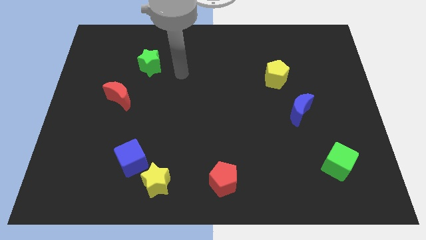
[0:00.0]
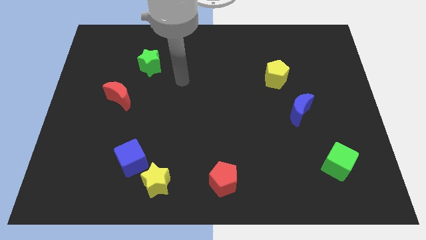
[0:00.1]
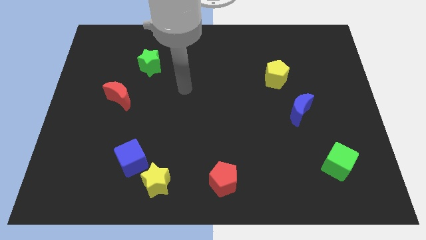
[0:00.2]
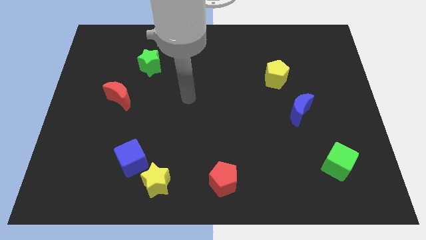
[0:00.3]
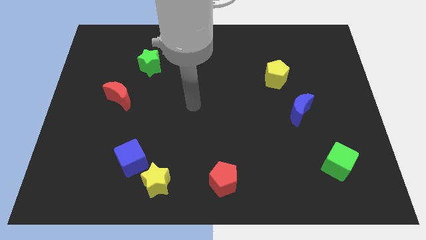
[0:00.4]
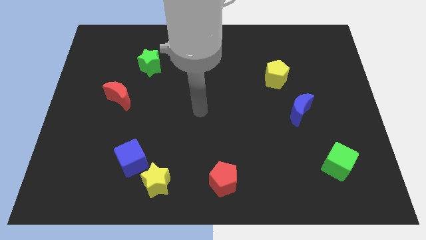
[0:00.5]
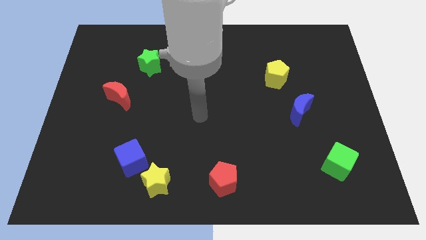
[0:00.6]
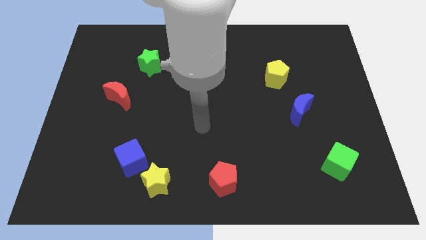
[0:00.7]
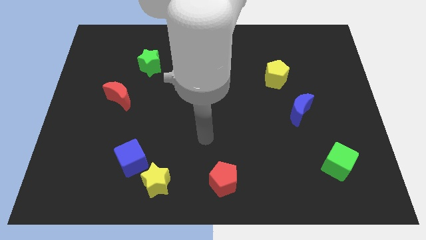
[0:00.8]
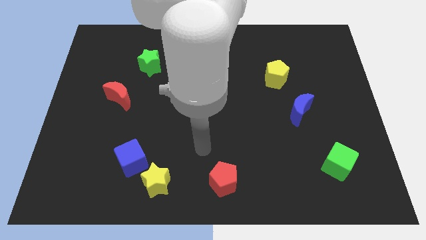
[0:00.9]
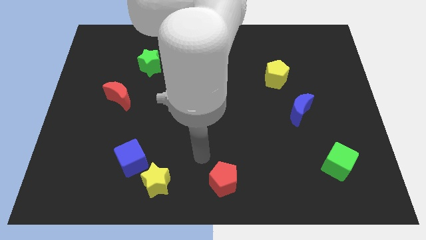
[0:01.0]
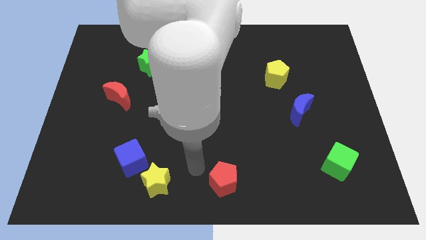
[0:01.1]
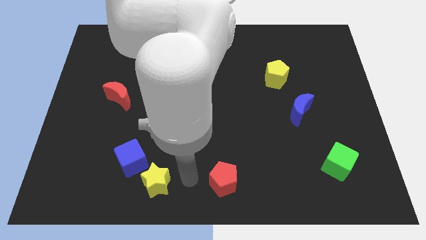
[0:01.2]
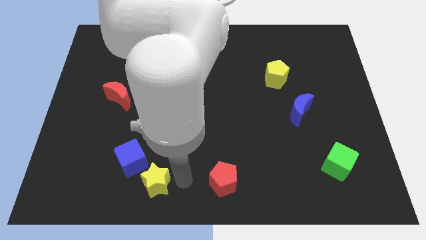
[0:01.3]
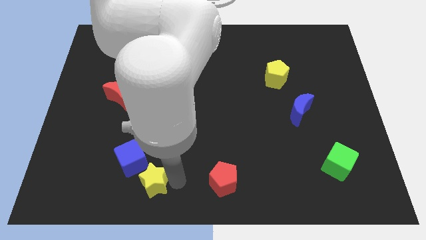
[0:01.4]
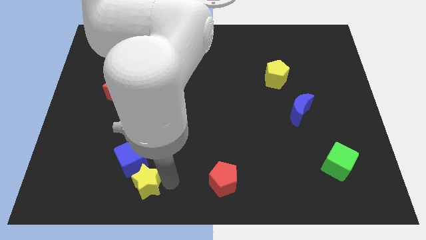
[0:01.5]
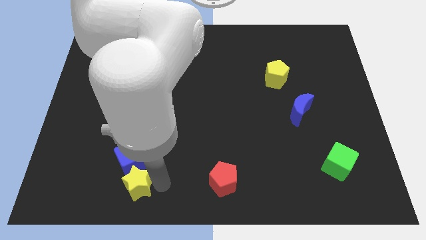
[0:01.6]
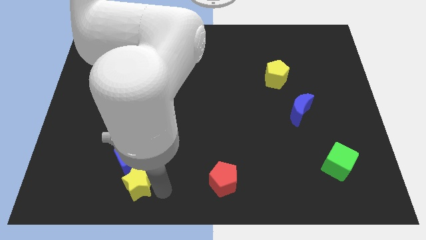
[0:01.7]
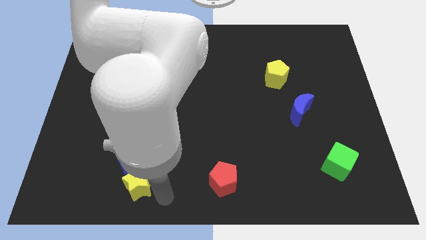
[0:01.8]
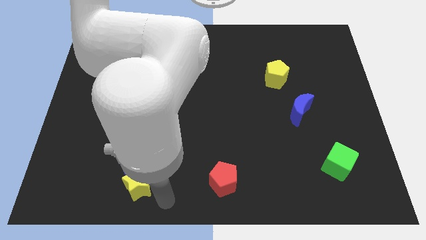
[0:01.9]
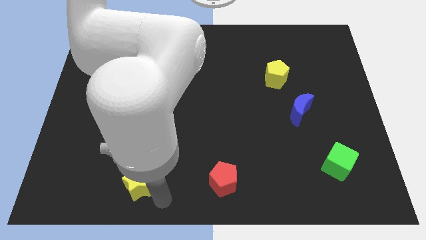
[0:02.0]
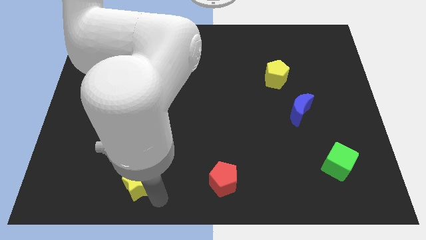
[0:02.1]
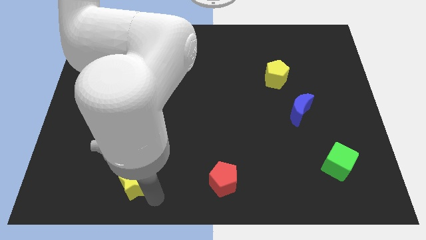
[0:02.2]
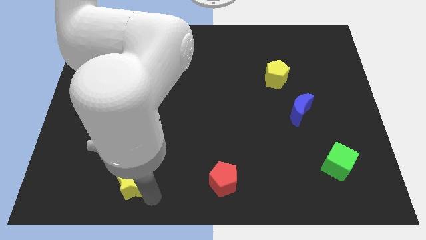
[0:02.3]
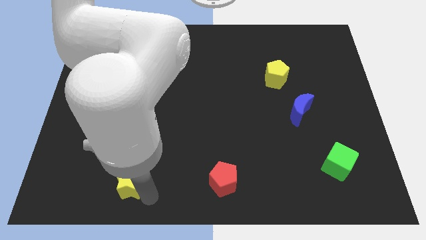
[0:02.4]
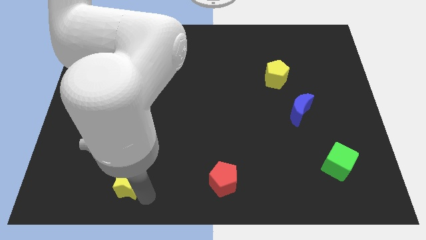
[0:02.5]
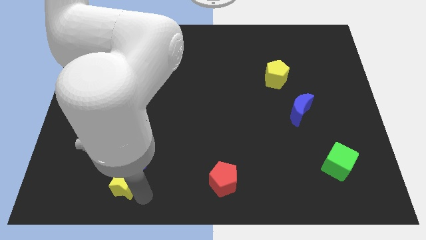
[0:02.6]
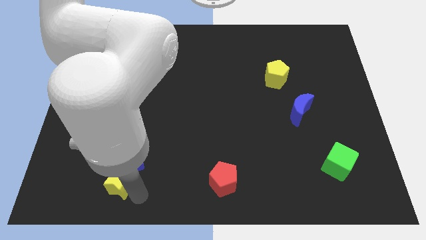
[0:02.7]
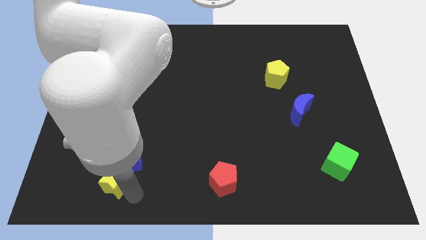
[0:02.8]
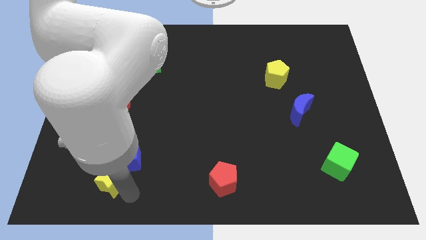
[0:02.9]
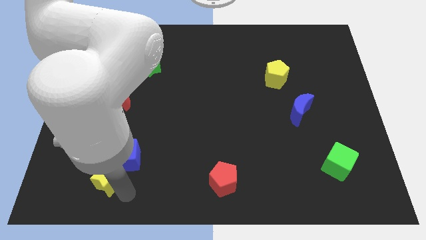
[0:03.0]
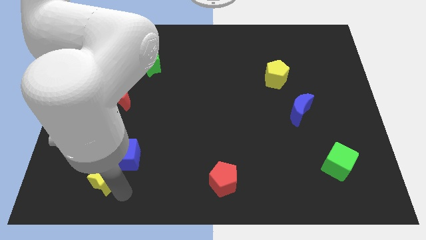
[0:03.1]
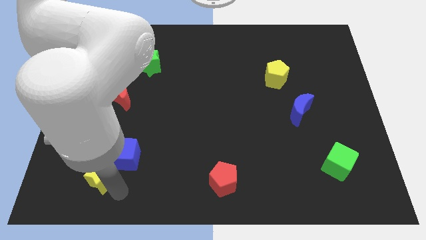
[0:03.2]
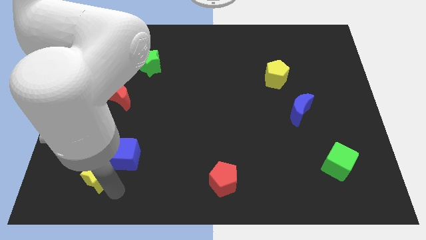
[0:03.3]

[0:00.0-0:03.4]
move the yellow star up and left slightly

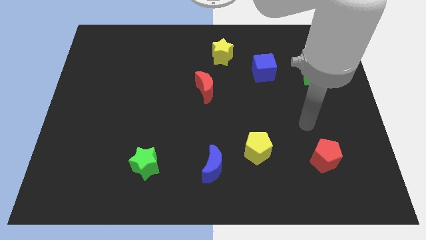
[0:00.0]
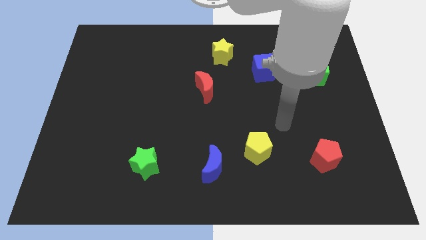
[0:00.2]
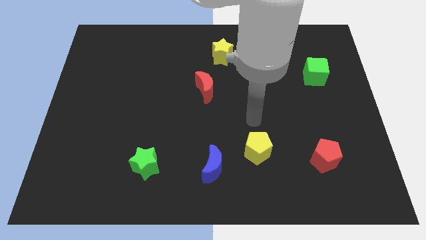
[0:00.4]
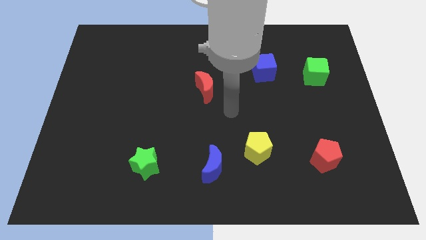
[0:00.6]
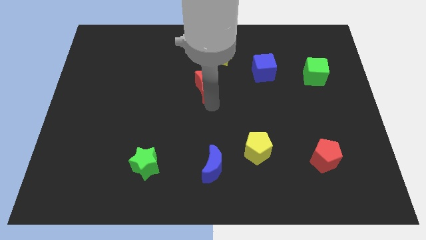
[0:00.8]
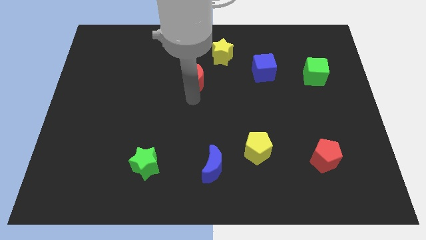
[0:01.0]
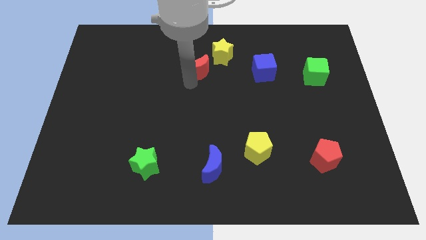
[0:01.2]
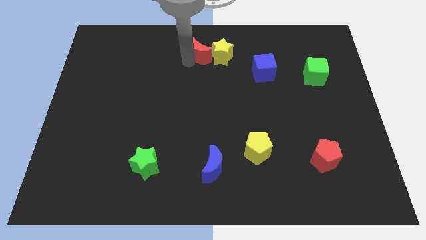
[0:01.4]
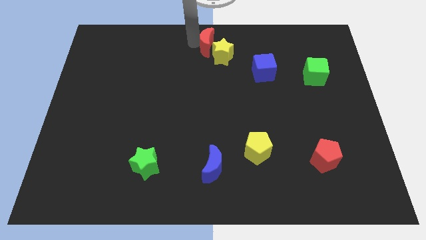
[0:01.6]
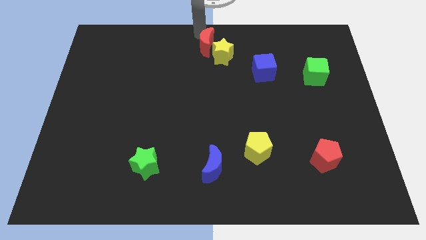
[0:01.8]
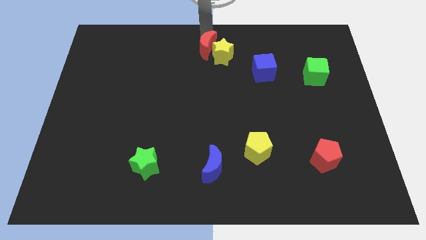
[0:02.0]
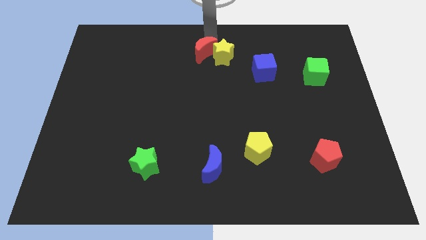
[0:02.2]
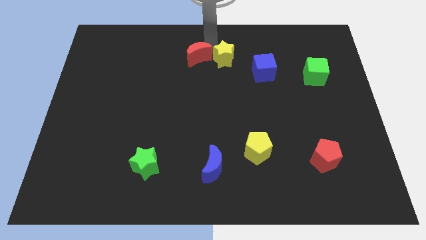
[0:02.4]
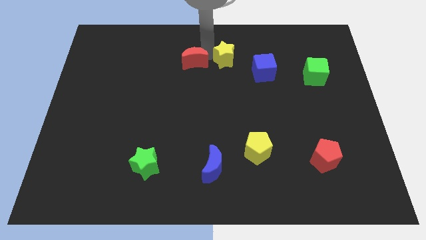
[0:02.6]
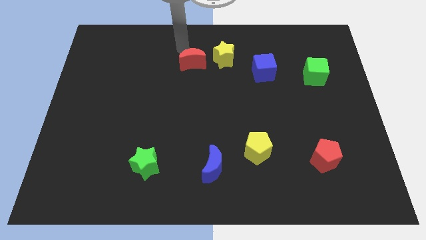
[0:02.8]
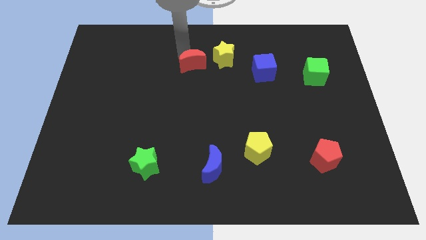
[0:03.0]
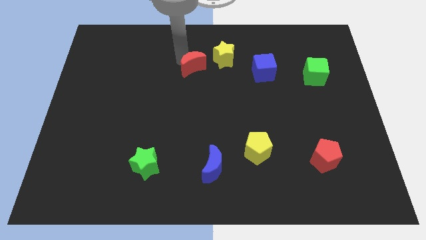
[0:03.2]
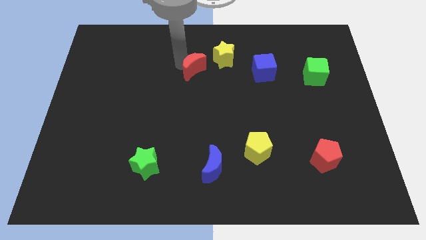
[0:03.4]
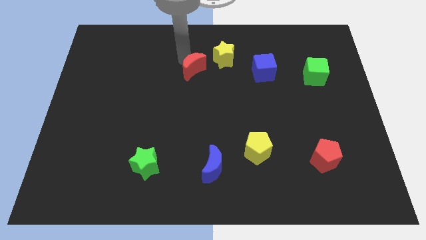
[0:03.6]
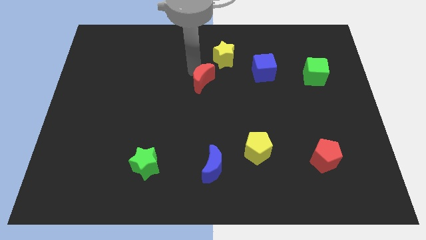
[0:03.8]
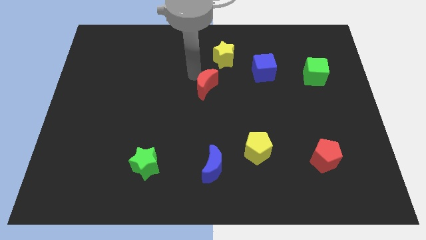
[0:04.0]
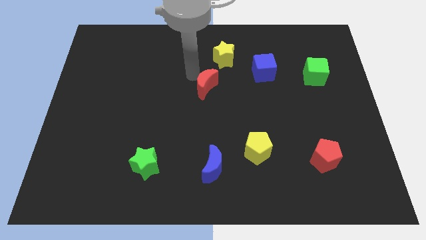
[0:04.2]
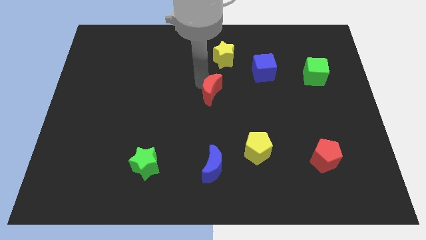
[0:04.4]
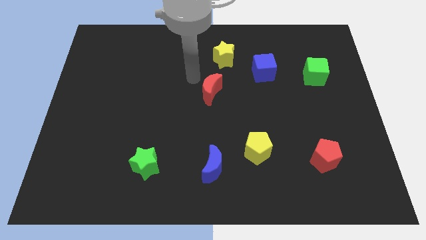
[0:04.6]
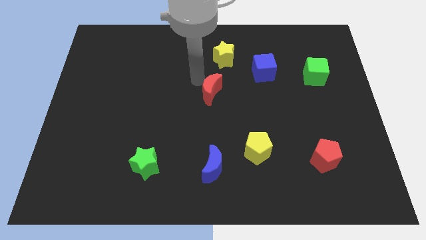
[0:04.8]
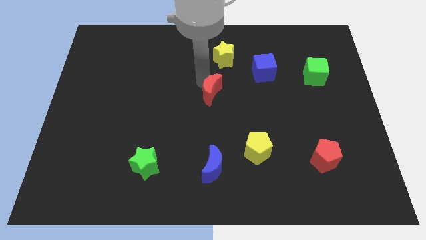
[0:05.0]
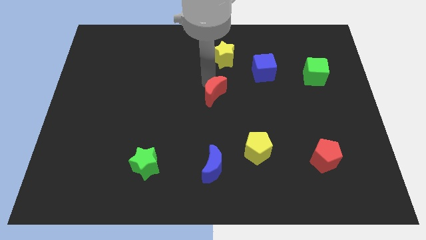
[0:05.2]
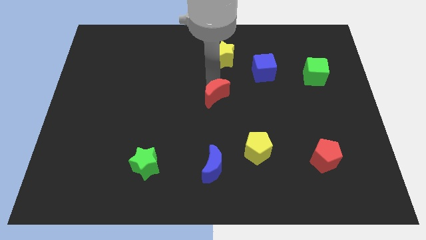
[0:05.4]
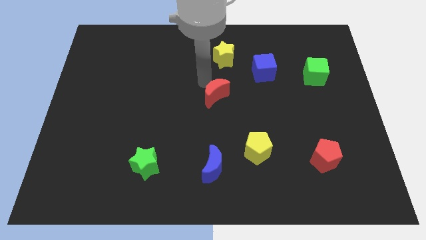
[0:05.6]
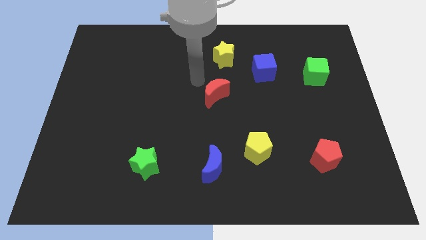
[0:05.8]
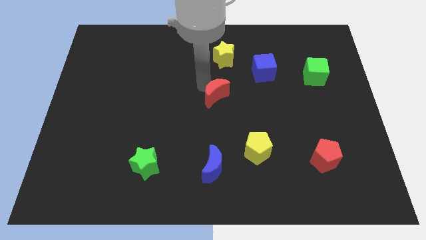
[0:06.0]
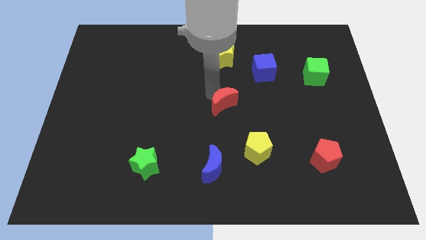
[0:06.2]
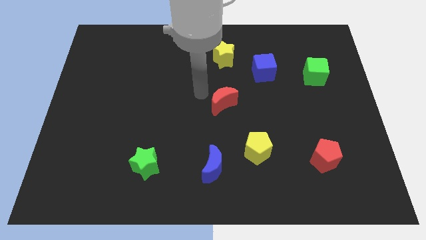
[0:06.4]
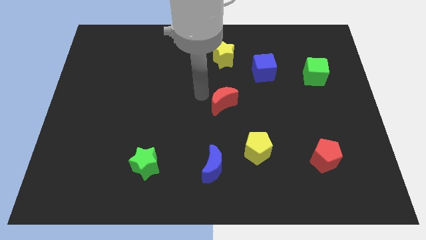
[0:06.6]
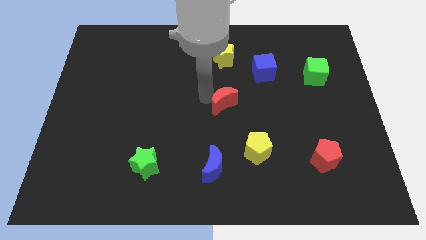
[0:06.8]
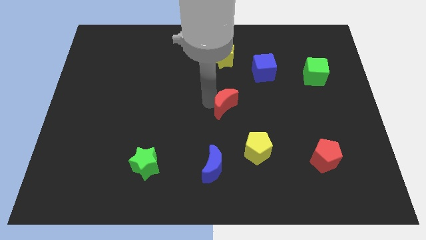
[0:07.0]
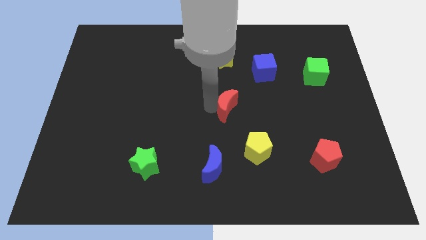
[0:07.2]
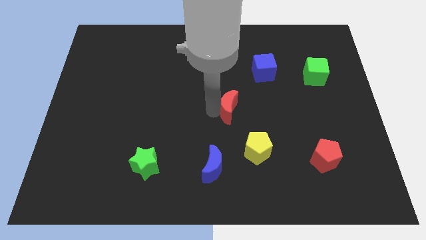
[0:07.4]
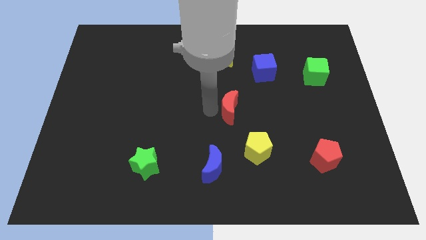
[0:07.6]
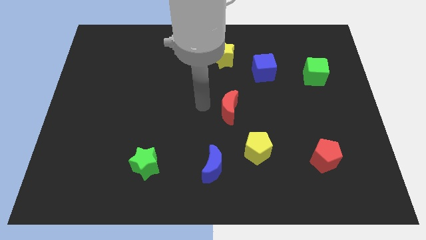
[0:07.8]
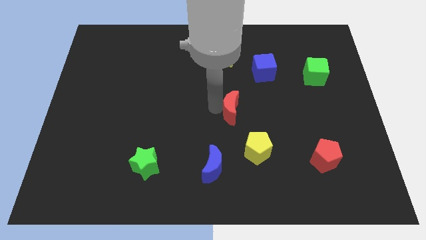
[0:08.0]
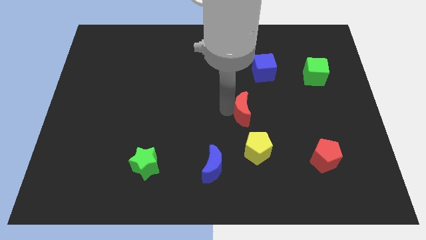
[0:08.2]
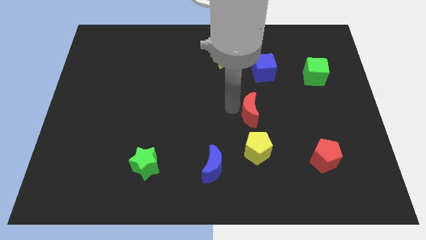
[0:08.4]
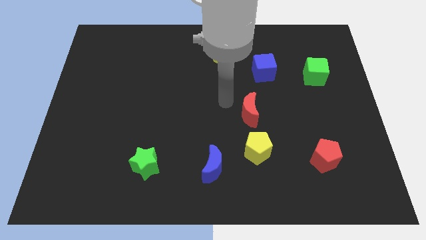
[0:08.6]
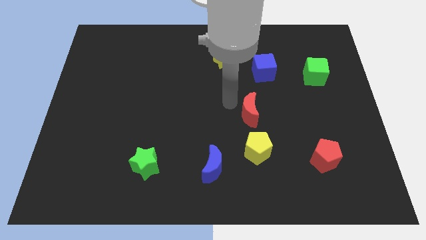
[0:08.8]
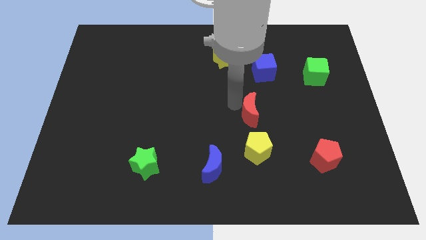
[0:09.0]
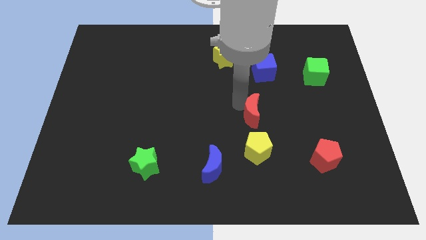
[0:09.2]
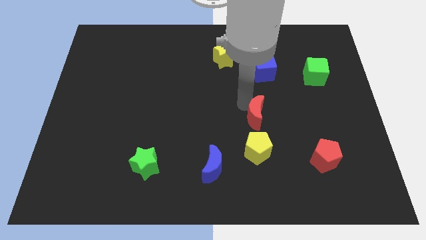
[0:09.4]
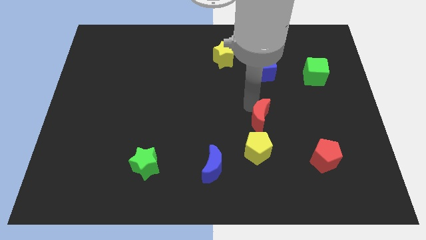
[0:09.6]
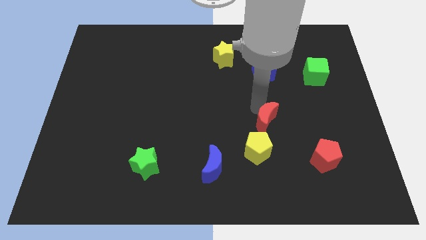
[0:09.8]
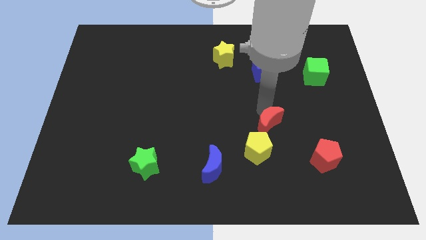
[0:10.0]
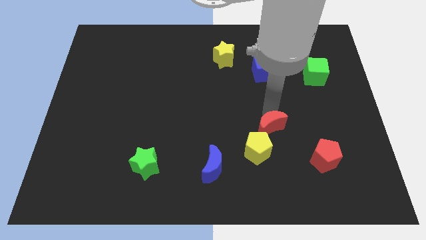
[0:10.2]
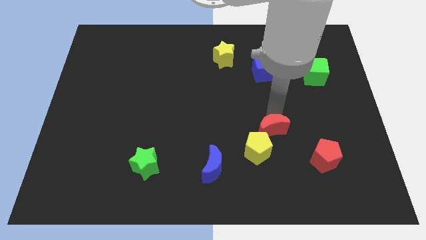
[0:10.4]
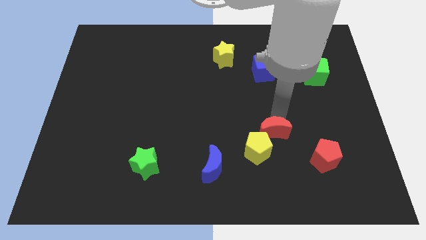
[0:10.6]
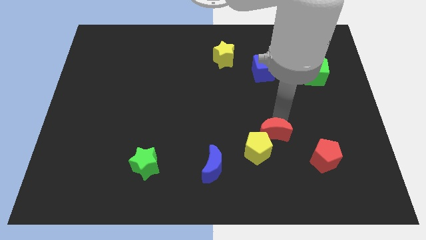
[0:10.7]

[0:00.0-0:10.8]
move the red moon down and to the right
